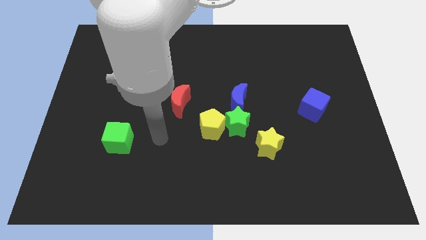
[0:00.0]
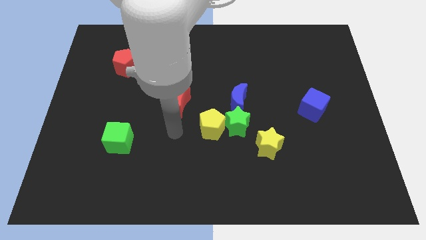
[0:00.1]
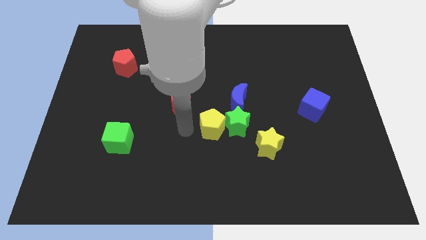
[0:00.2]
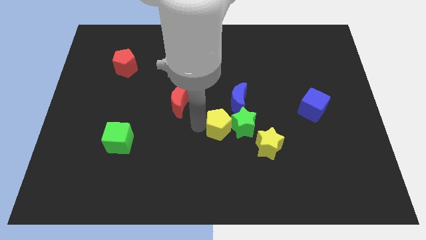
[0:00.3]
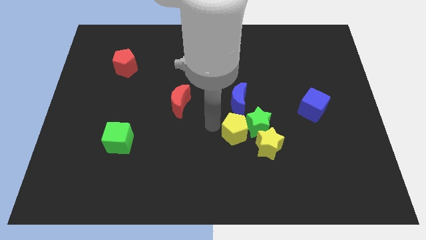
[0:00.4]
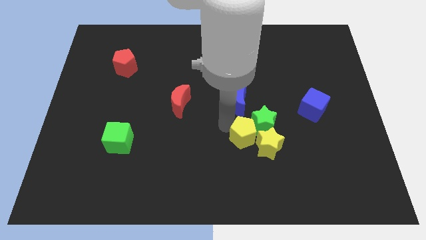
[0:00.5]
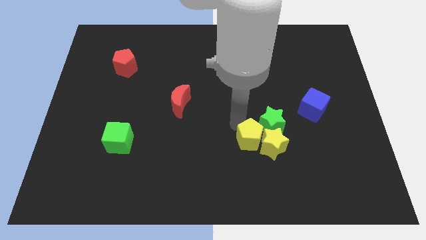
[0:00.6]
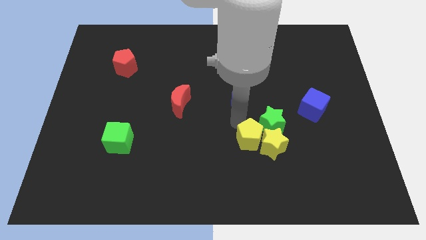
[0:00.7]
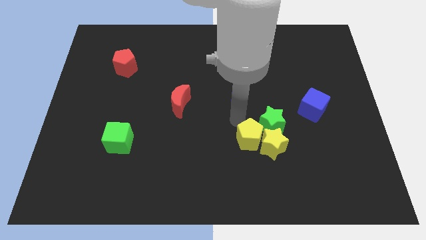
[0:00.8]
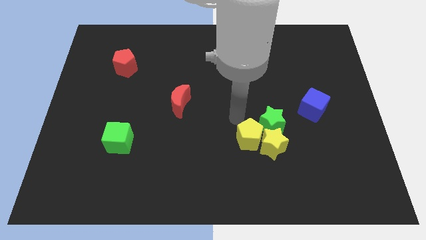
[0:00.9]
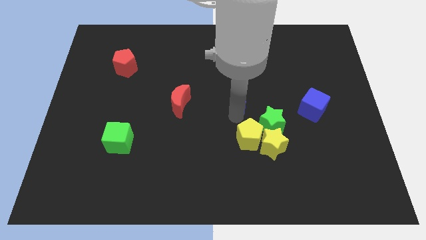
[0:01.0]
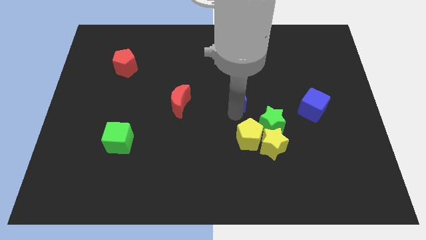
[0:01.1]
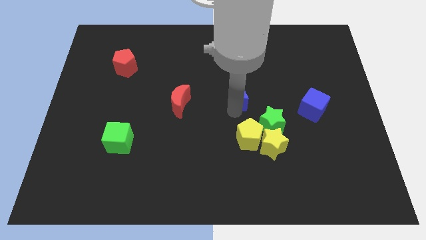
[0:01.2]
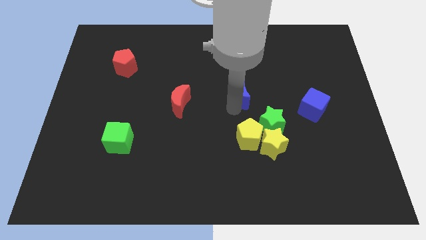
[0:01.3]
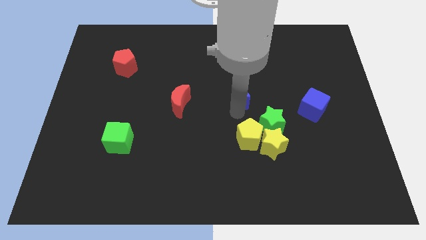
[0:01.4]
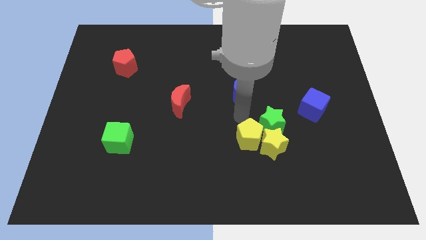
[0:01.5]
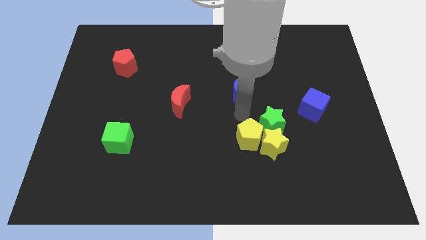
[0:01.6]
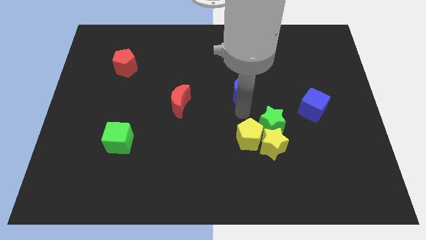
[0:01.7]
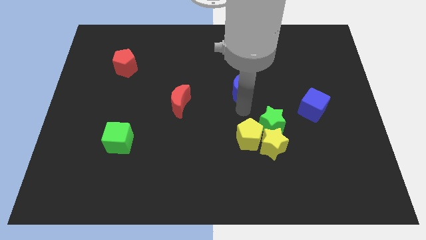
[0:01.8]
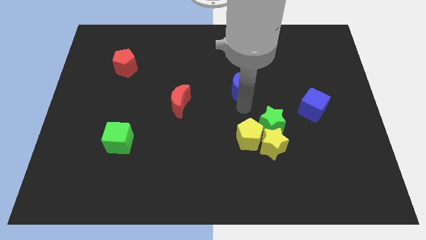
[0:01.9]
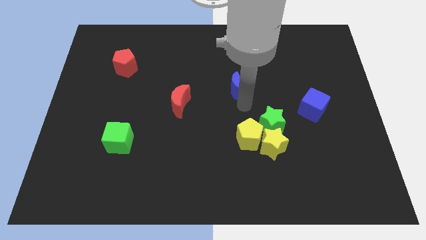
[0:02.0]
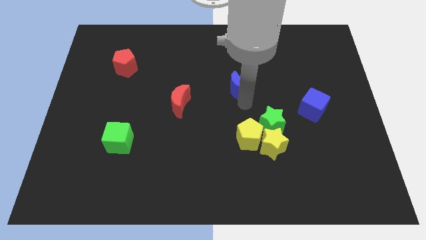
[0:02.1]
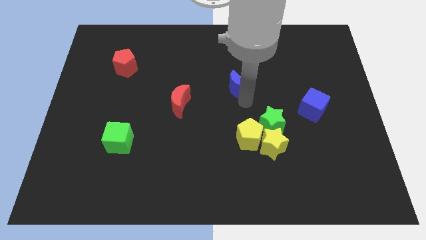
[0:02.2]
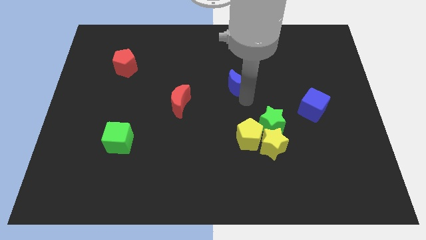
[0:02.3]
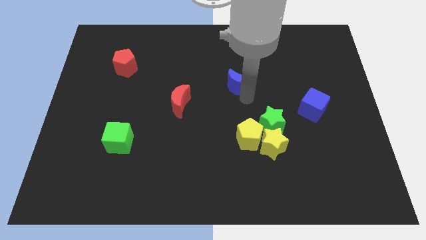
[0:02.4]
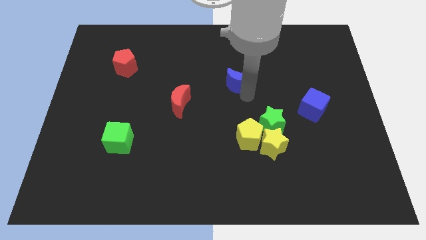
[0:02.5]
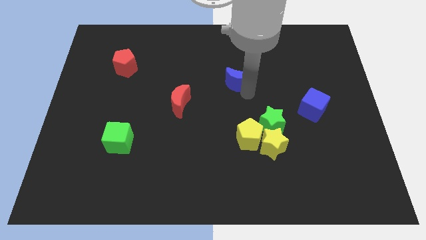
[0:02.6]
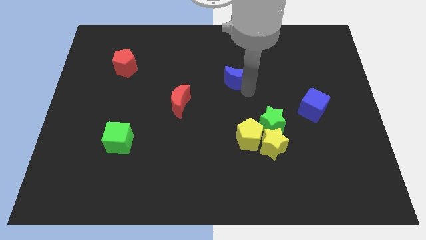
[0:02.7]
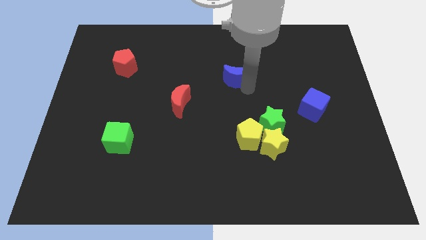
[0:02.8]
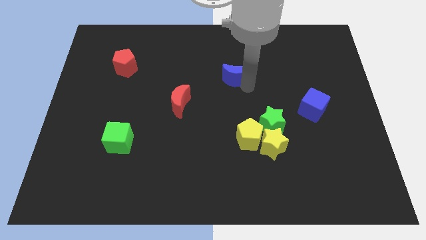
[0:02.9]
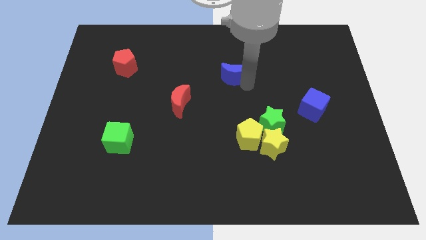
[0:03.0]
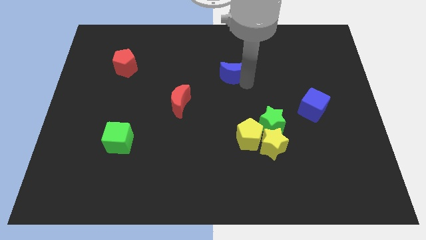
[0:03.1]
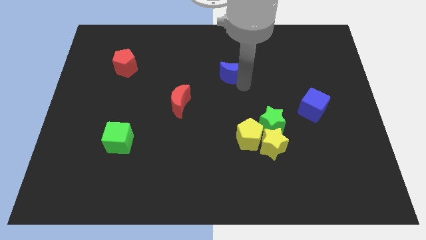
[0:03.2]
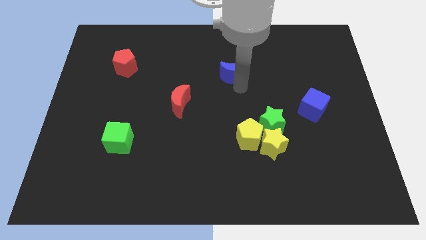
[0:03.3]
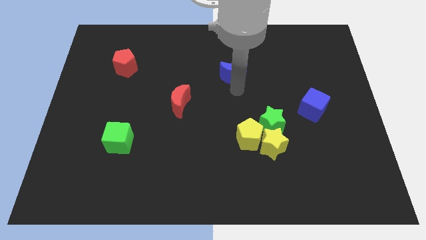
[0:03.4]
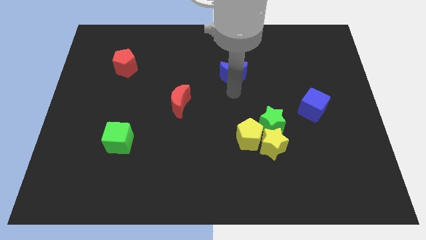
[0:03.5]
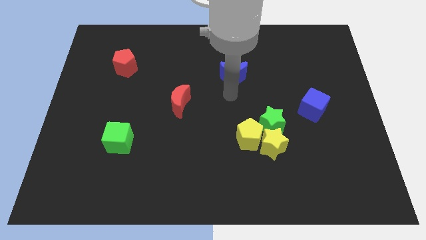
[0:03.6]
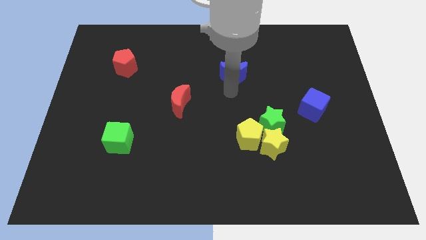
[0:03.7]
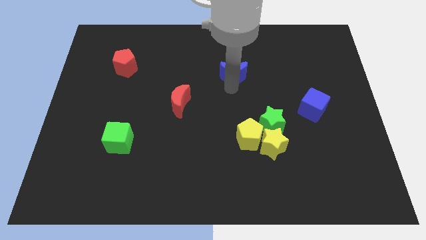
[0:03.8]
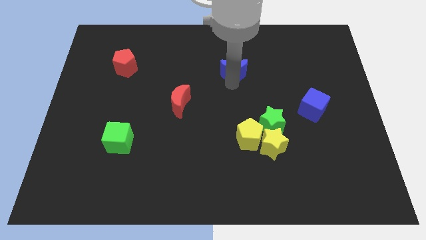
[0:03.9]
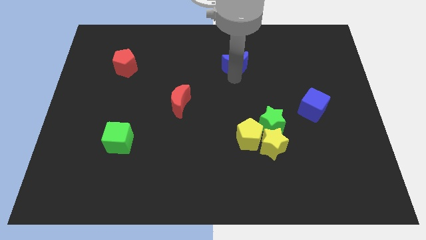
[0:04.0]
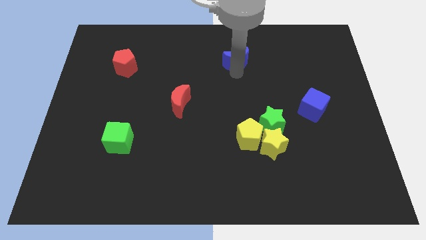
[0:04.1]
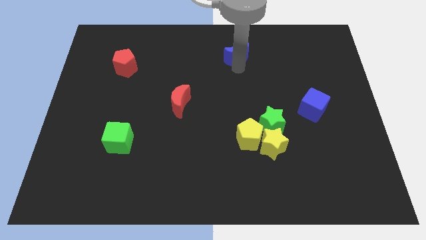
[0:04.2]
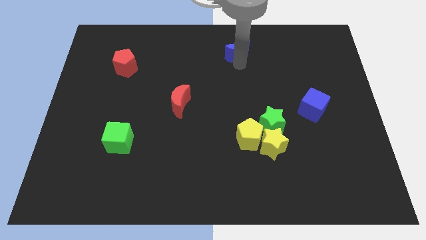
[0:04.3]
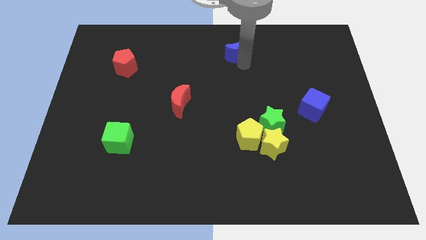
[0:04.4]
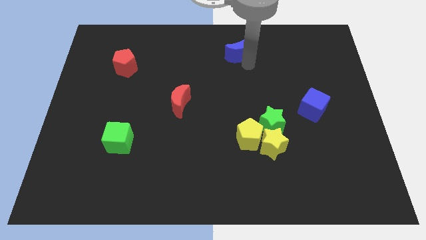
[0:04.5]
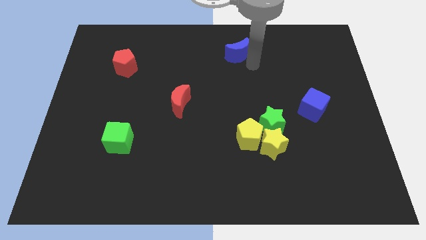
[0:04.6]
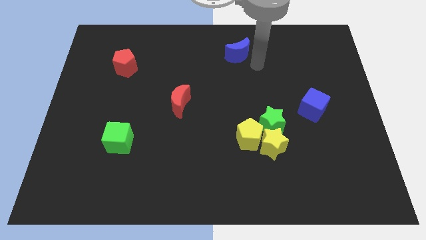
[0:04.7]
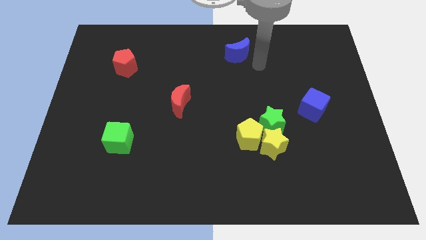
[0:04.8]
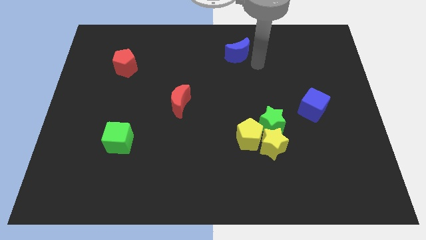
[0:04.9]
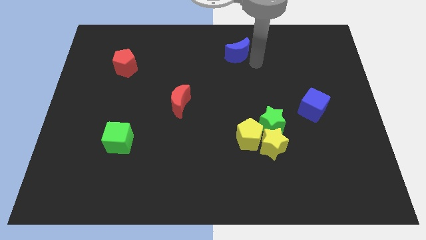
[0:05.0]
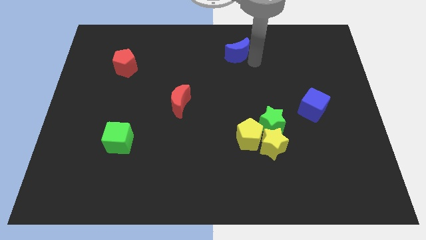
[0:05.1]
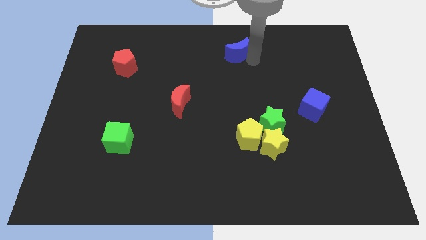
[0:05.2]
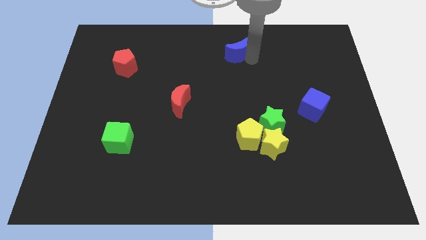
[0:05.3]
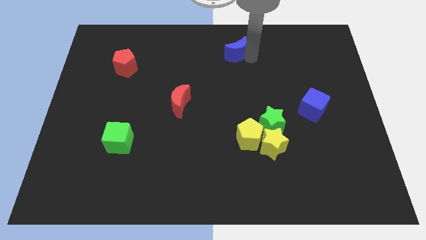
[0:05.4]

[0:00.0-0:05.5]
push the blue moon to the towards your base
